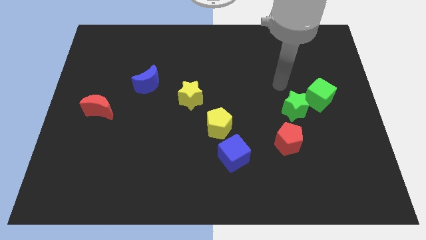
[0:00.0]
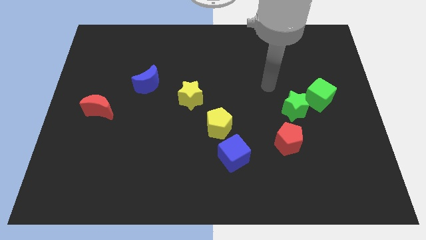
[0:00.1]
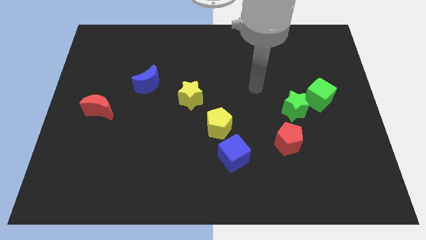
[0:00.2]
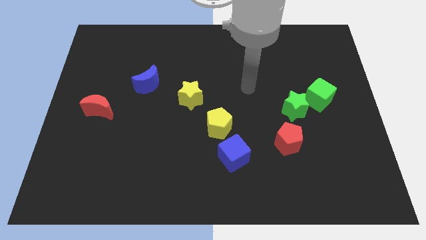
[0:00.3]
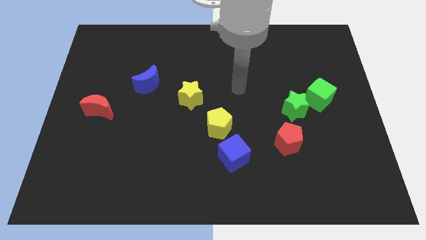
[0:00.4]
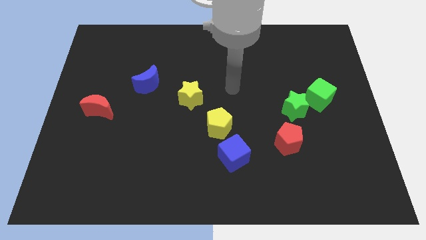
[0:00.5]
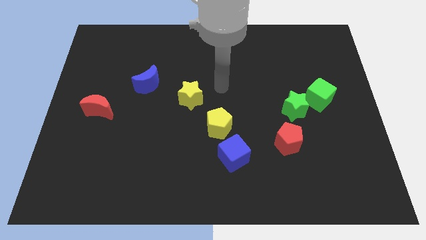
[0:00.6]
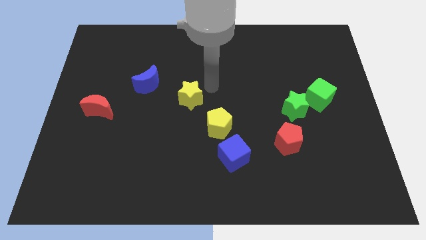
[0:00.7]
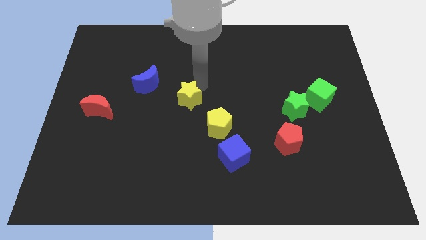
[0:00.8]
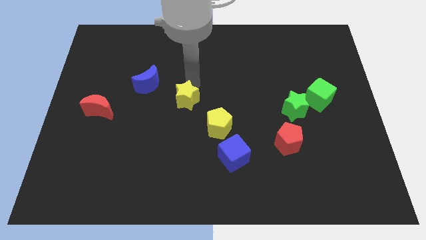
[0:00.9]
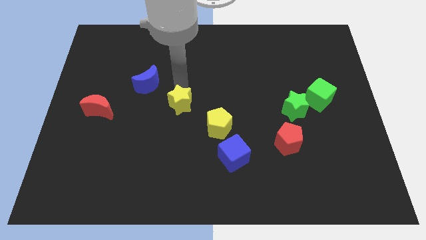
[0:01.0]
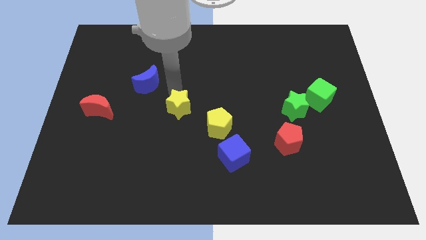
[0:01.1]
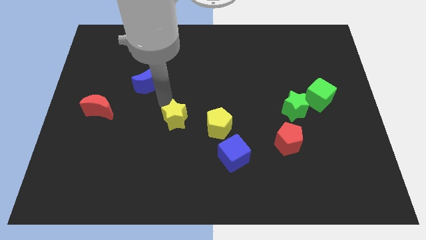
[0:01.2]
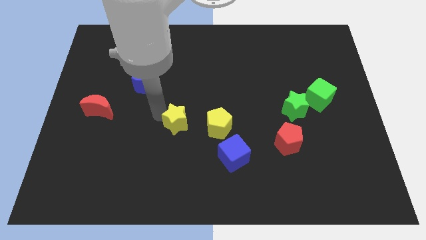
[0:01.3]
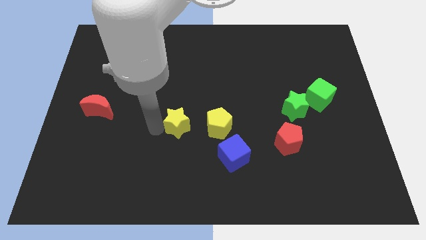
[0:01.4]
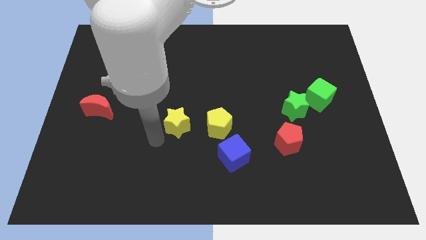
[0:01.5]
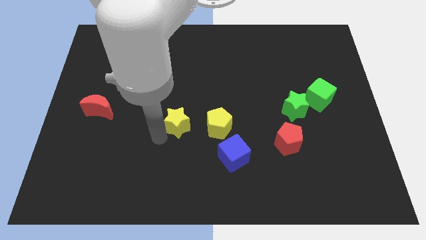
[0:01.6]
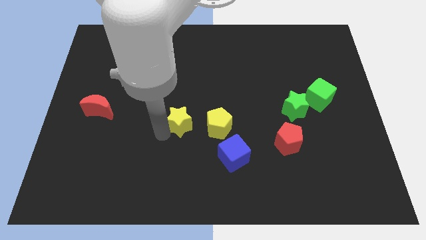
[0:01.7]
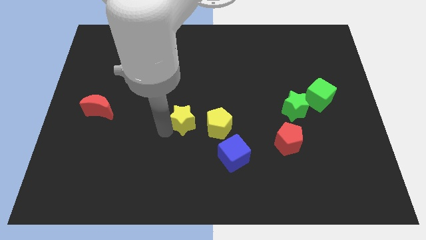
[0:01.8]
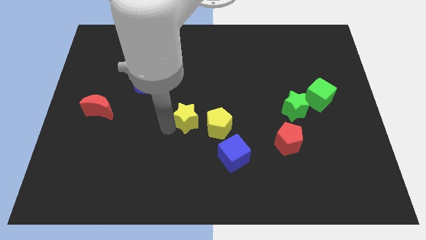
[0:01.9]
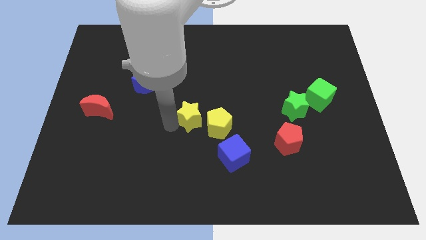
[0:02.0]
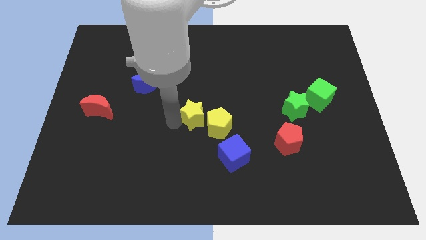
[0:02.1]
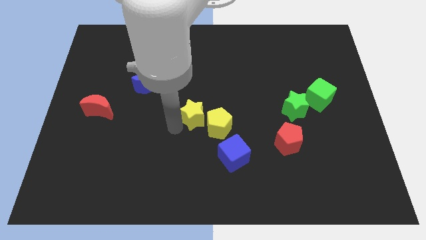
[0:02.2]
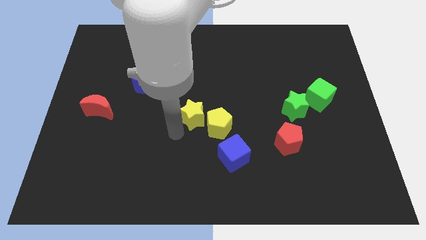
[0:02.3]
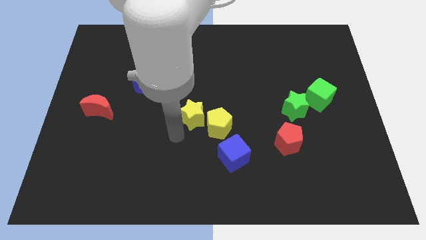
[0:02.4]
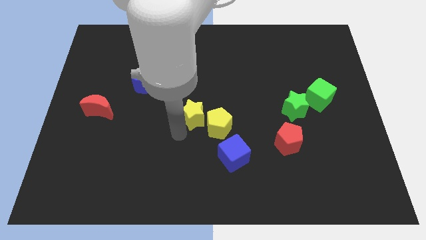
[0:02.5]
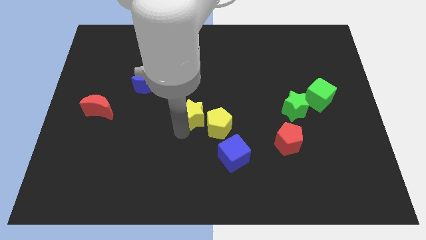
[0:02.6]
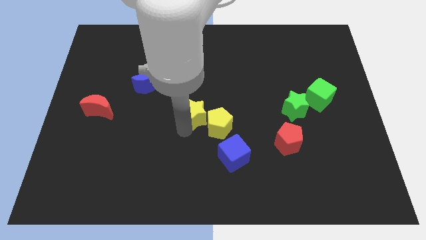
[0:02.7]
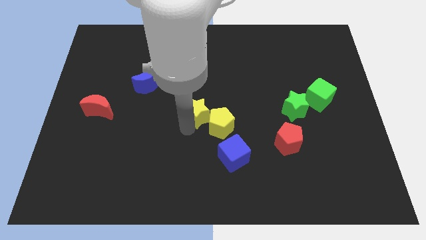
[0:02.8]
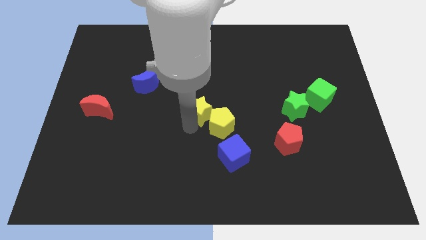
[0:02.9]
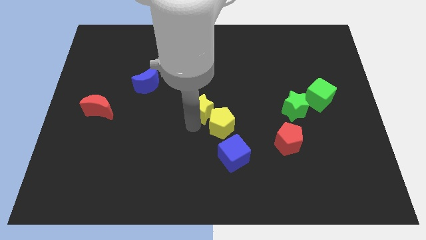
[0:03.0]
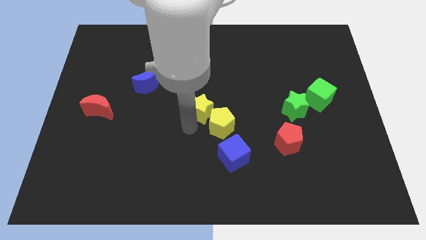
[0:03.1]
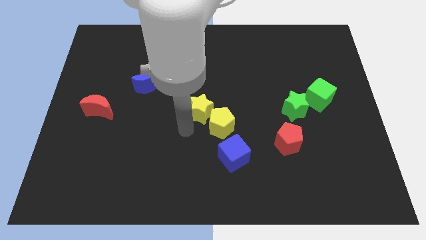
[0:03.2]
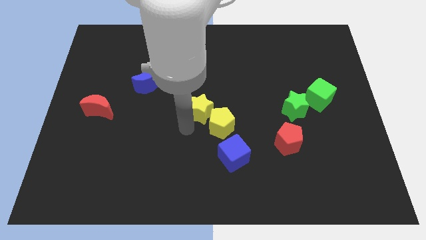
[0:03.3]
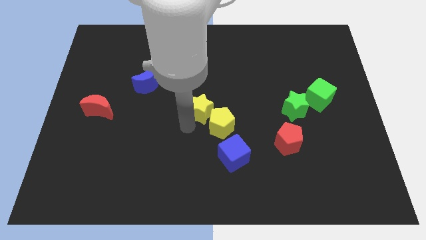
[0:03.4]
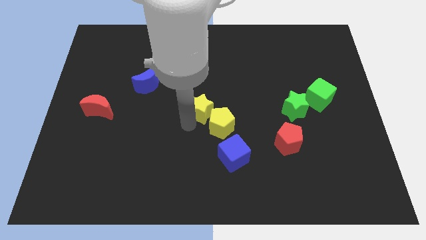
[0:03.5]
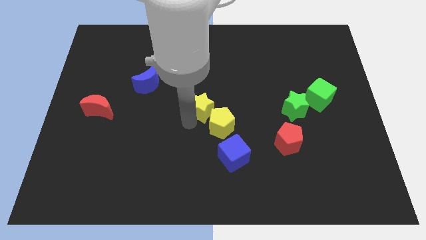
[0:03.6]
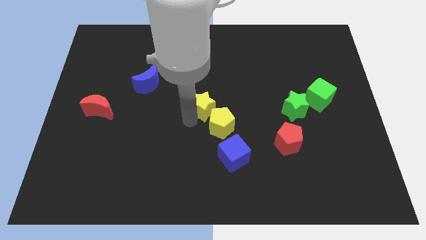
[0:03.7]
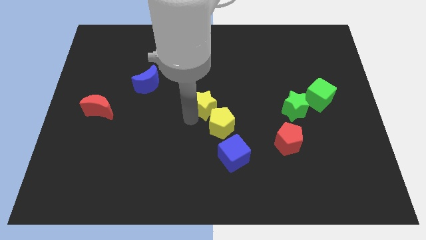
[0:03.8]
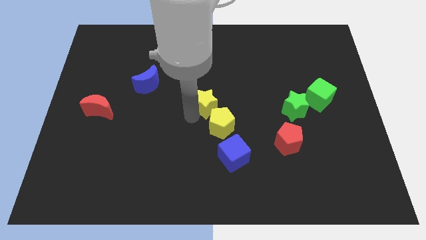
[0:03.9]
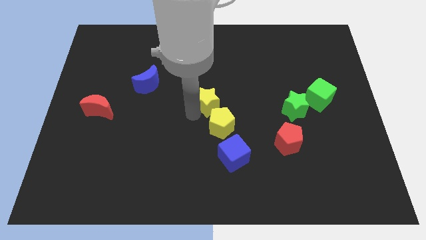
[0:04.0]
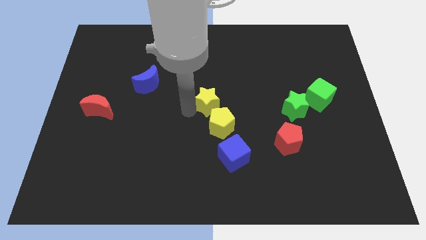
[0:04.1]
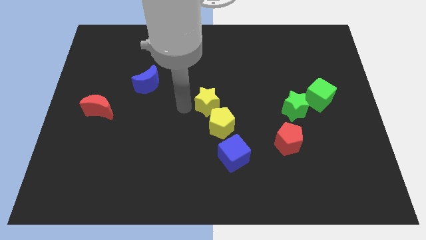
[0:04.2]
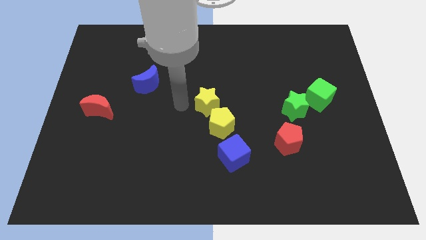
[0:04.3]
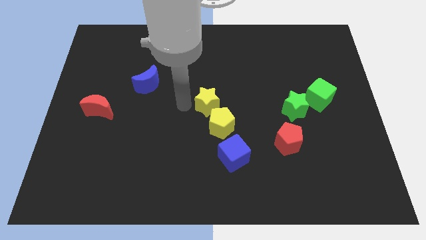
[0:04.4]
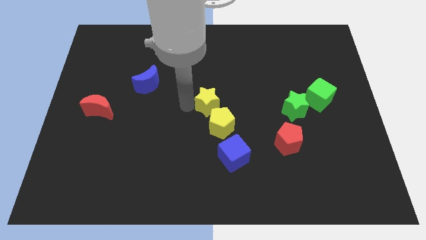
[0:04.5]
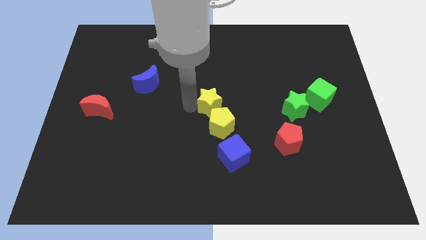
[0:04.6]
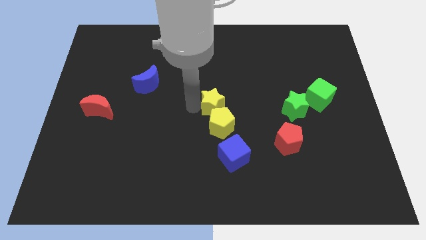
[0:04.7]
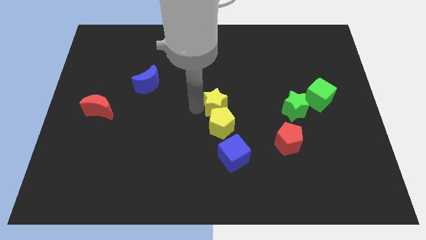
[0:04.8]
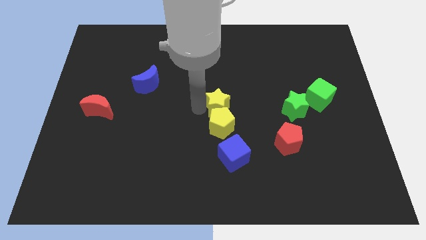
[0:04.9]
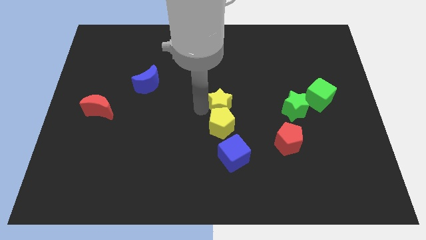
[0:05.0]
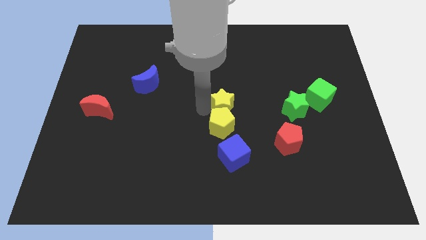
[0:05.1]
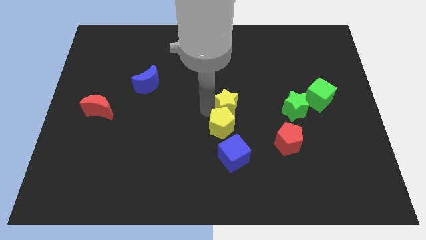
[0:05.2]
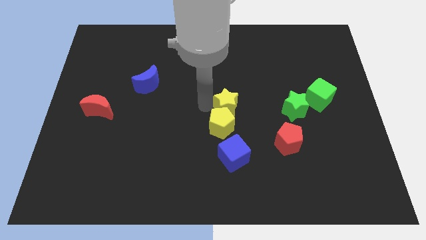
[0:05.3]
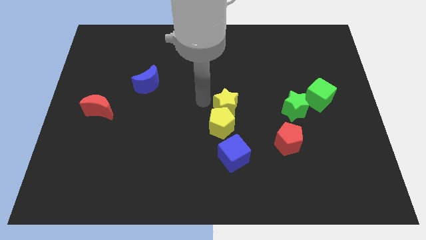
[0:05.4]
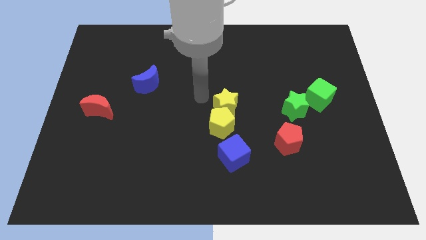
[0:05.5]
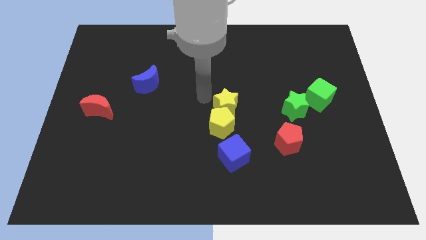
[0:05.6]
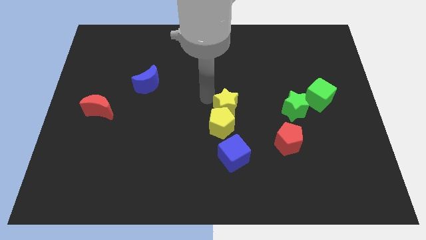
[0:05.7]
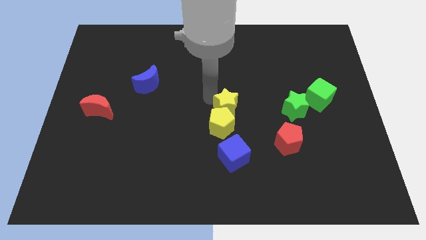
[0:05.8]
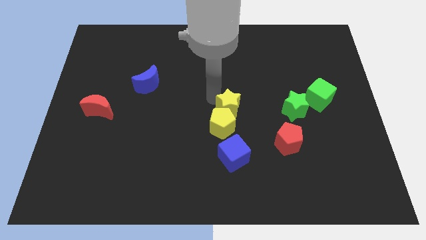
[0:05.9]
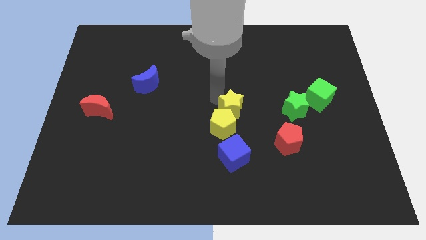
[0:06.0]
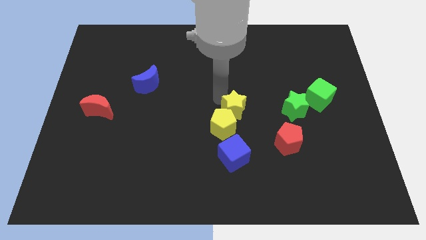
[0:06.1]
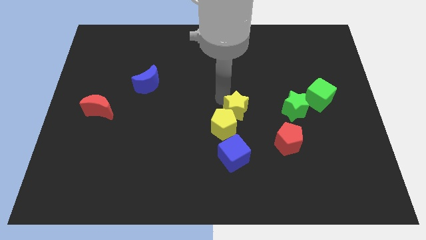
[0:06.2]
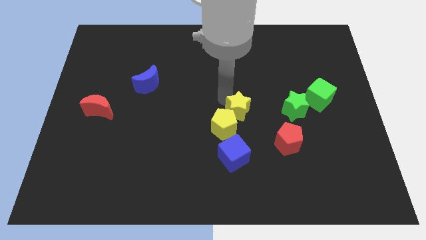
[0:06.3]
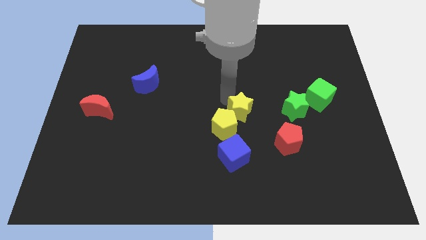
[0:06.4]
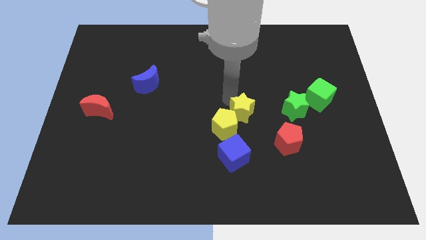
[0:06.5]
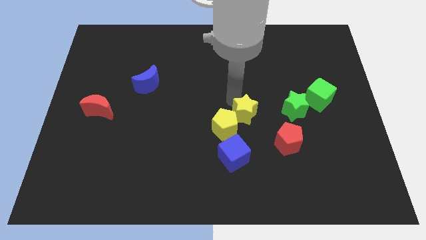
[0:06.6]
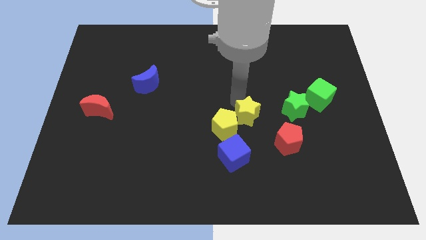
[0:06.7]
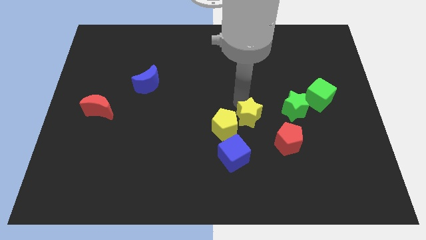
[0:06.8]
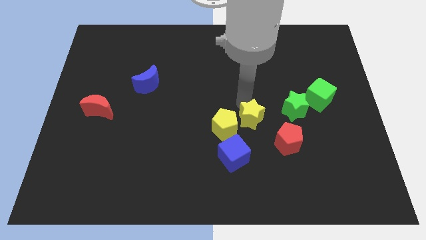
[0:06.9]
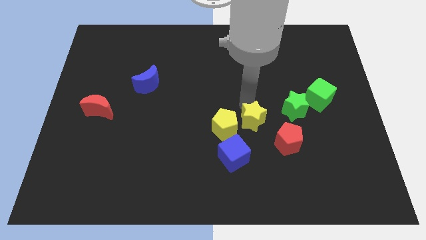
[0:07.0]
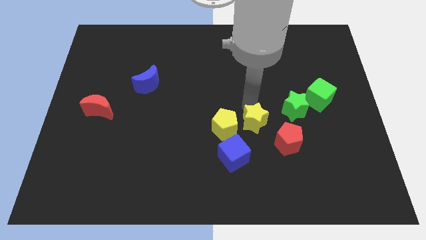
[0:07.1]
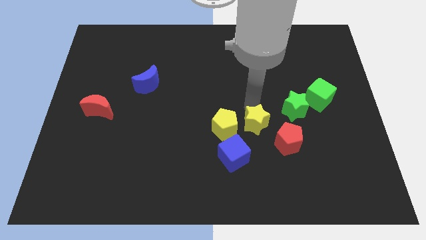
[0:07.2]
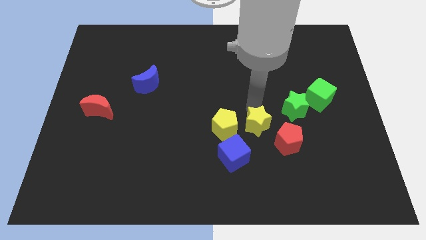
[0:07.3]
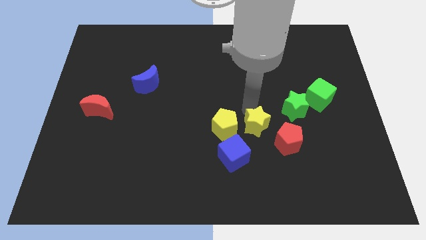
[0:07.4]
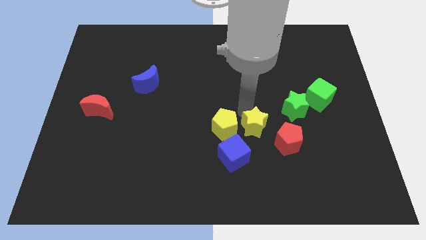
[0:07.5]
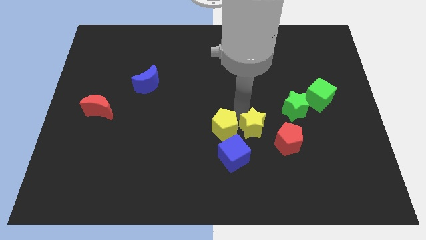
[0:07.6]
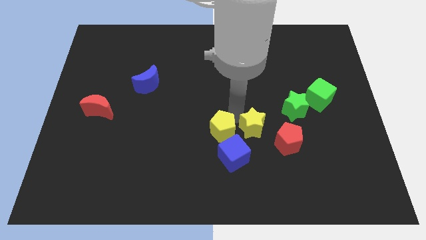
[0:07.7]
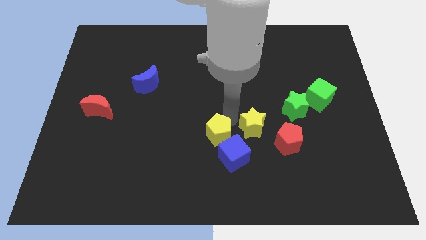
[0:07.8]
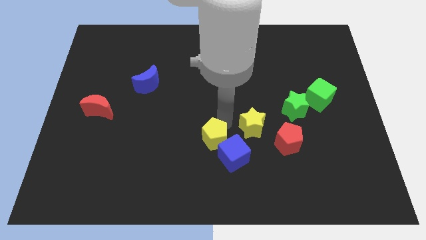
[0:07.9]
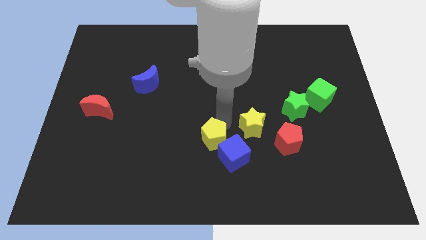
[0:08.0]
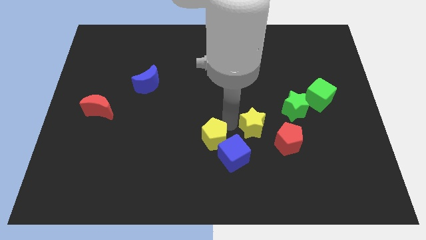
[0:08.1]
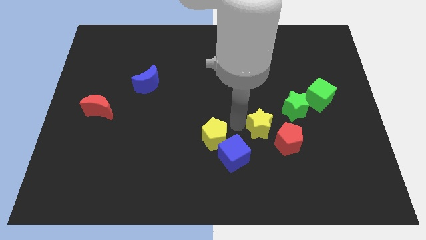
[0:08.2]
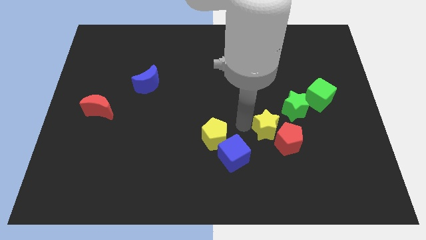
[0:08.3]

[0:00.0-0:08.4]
put the yellow star to the red pentagon
